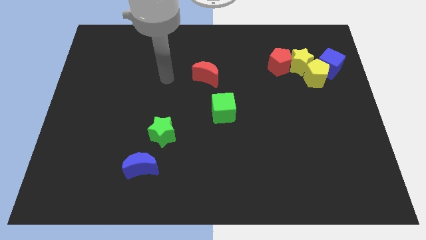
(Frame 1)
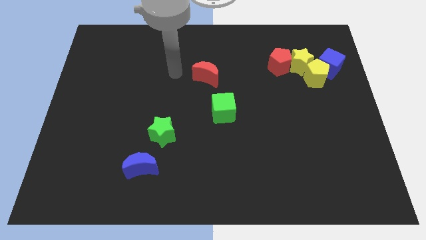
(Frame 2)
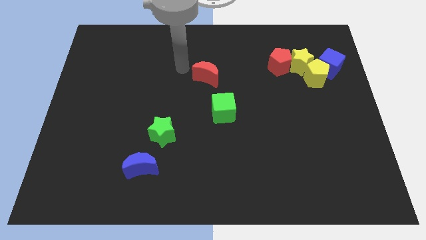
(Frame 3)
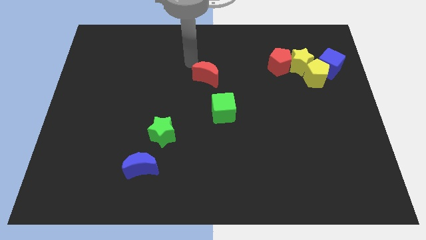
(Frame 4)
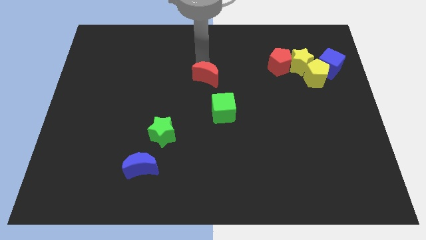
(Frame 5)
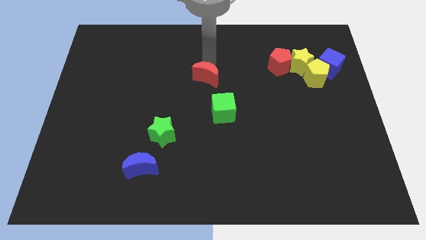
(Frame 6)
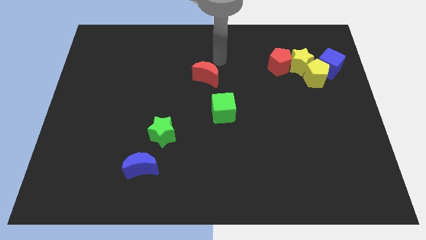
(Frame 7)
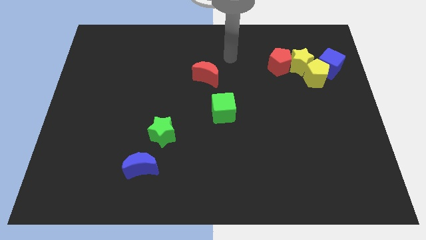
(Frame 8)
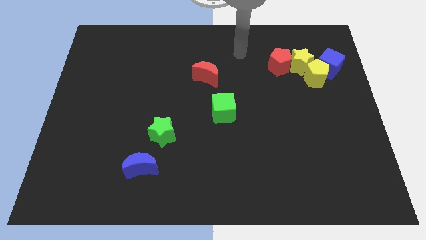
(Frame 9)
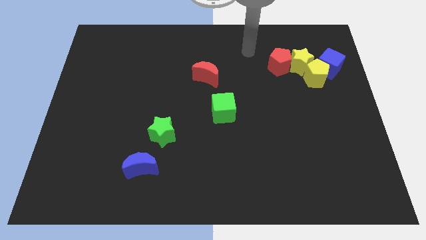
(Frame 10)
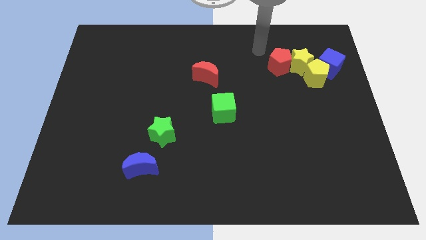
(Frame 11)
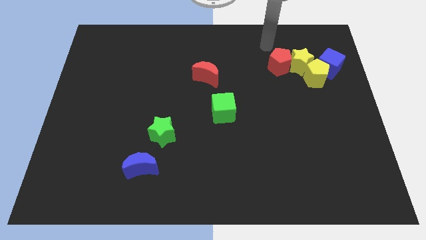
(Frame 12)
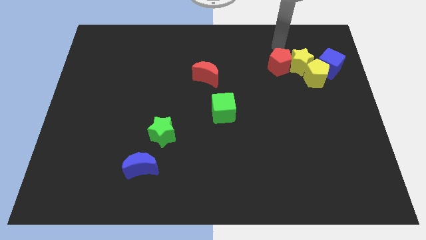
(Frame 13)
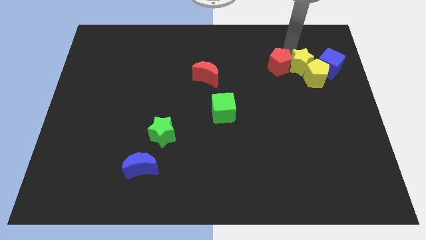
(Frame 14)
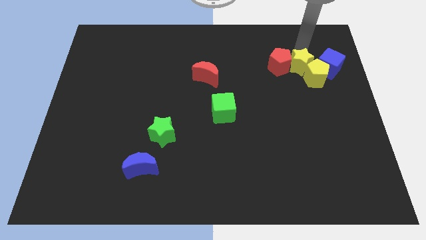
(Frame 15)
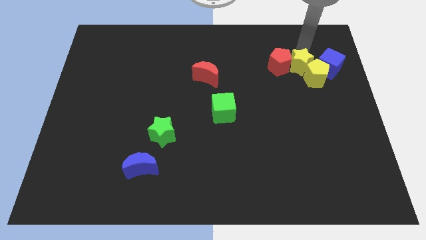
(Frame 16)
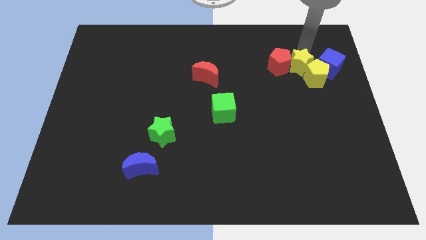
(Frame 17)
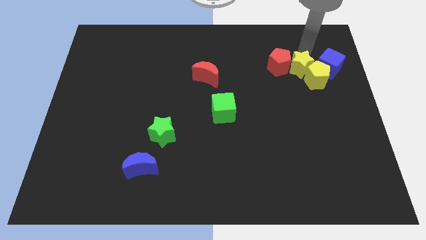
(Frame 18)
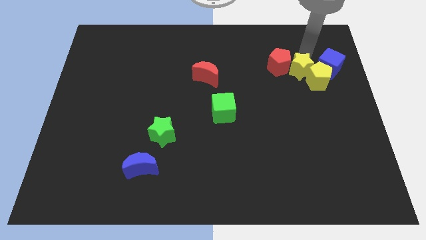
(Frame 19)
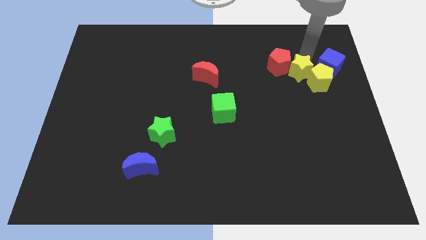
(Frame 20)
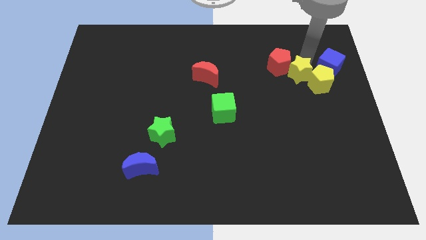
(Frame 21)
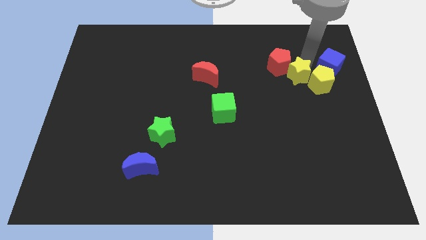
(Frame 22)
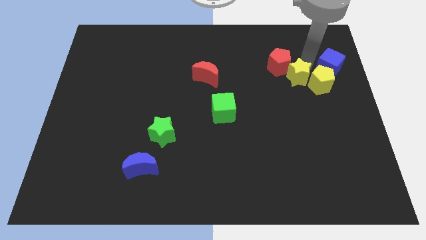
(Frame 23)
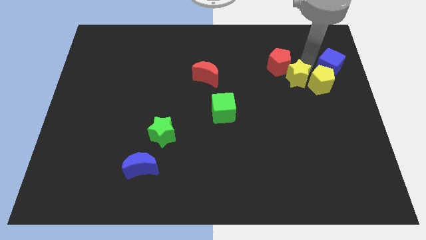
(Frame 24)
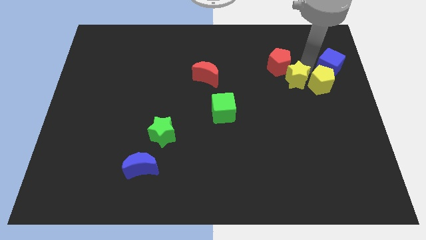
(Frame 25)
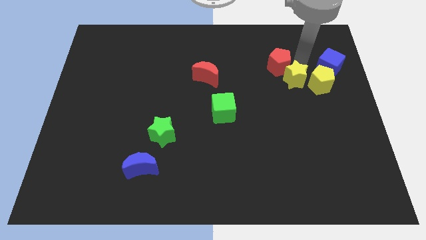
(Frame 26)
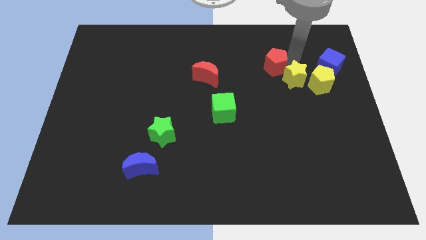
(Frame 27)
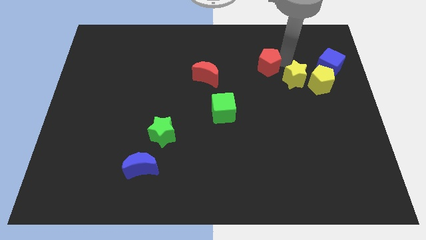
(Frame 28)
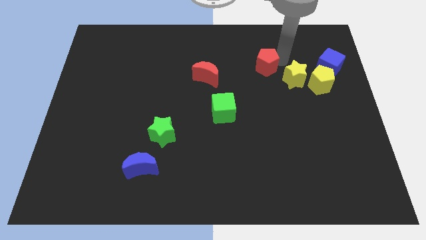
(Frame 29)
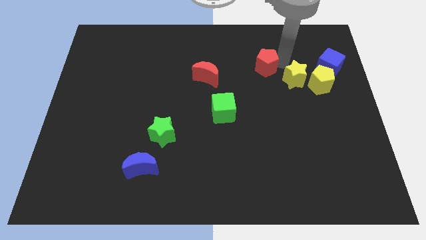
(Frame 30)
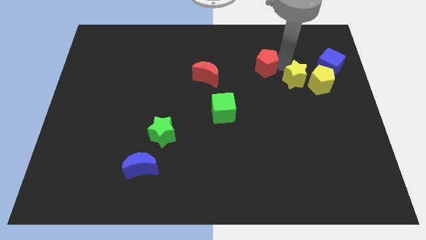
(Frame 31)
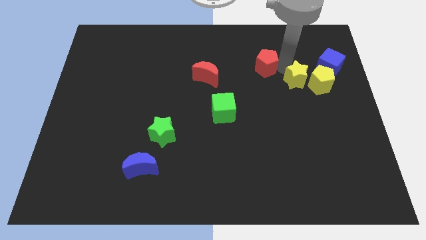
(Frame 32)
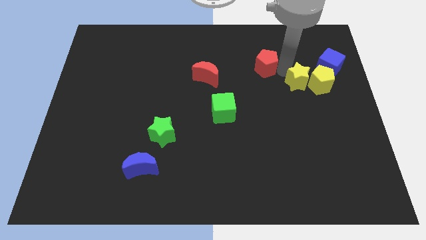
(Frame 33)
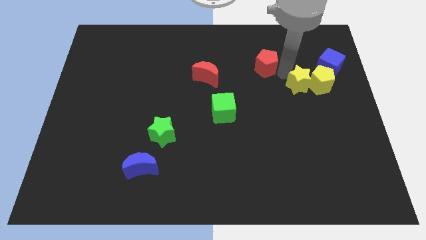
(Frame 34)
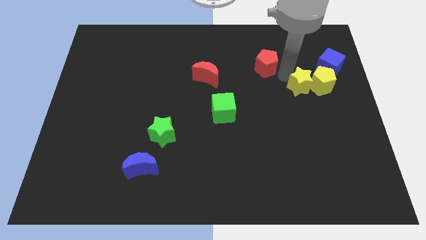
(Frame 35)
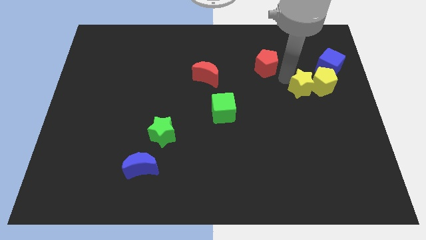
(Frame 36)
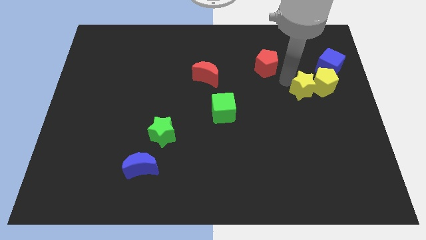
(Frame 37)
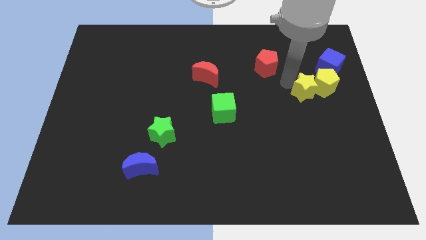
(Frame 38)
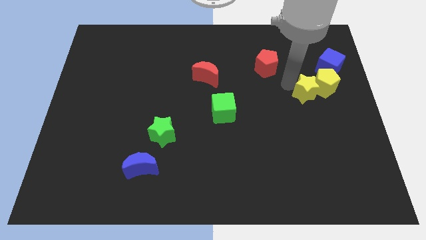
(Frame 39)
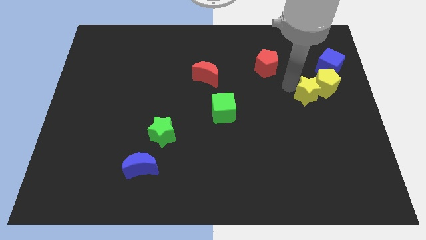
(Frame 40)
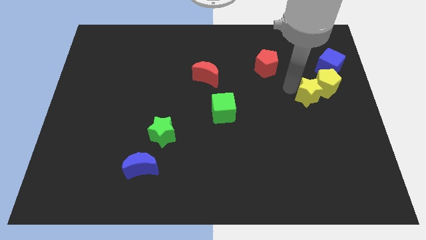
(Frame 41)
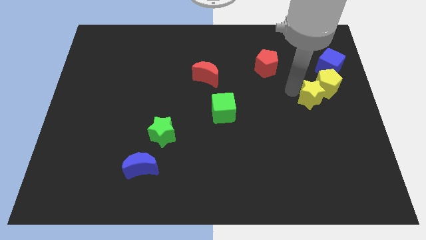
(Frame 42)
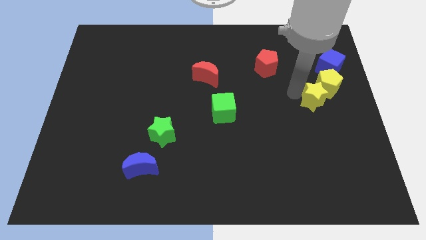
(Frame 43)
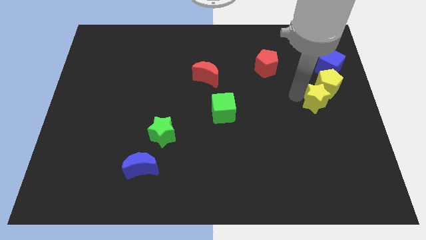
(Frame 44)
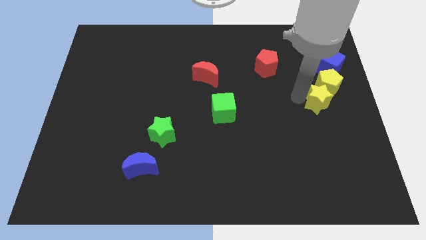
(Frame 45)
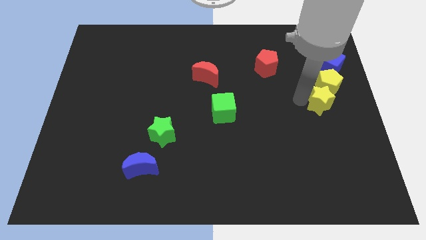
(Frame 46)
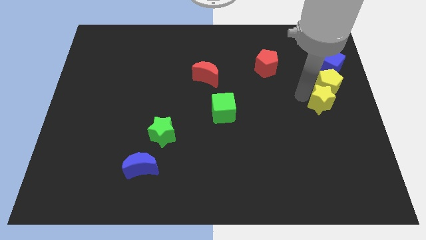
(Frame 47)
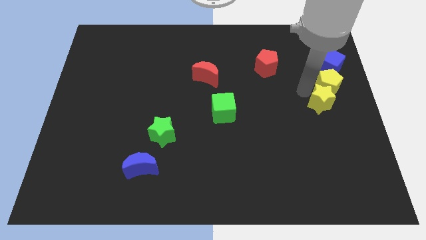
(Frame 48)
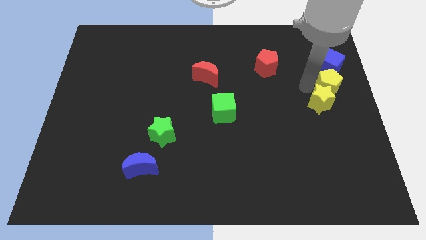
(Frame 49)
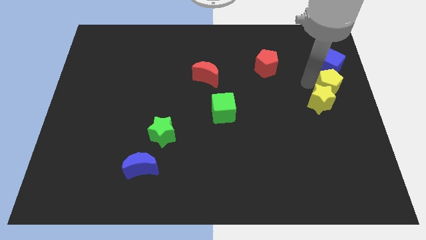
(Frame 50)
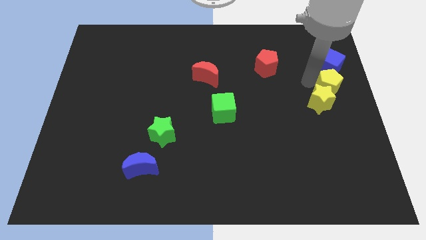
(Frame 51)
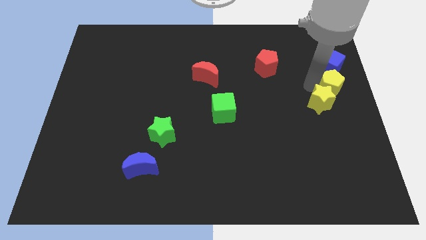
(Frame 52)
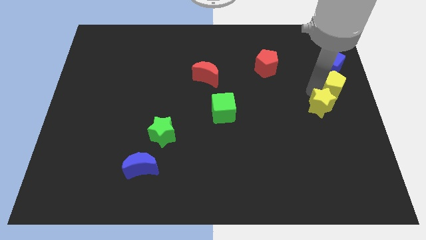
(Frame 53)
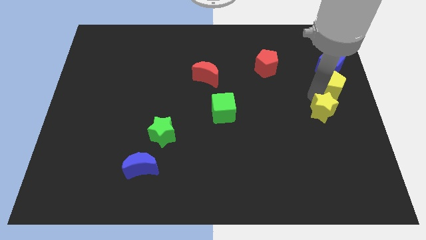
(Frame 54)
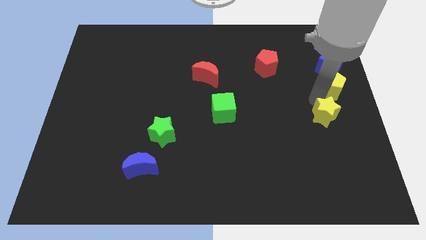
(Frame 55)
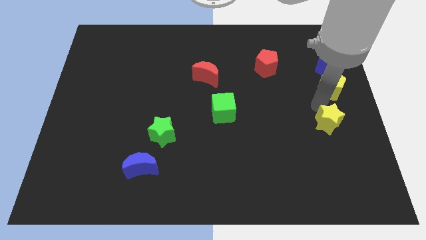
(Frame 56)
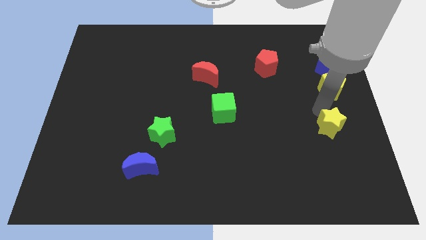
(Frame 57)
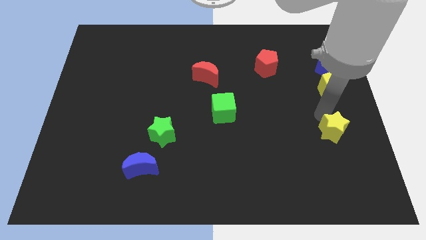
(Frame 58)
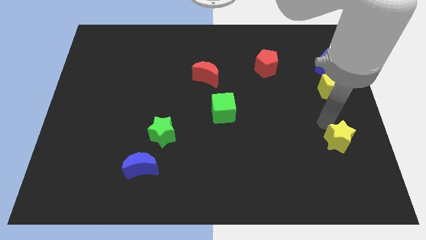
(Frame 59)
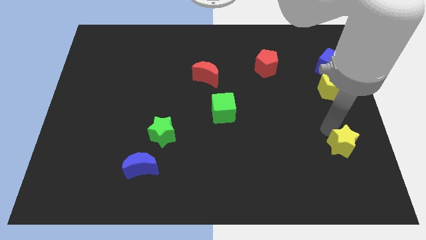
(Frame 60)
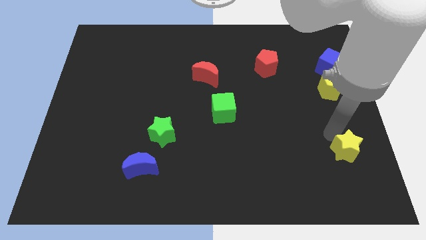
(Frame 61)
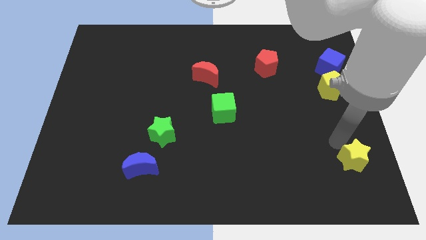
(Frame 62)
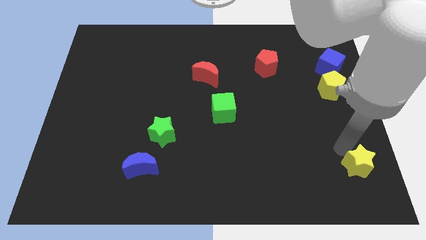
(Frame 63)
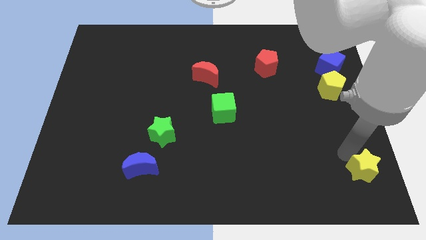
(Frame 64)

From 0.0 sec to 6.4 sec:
push the yellow star to the bottom right corner
